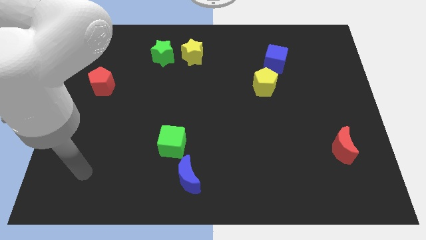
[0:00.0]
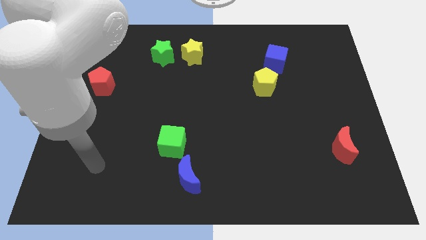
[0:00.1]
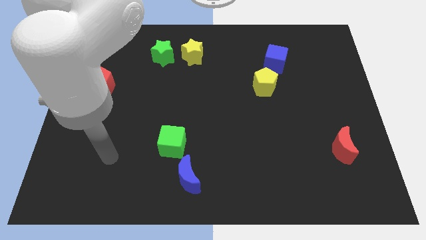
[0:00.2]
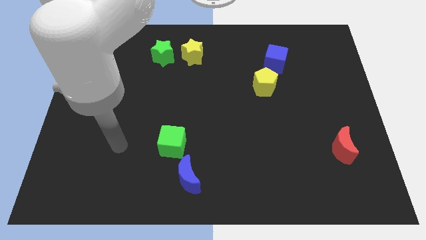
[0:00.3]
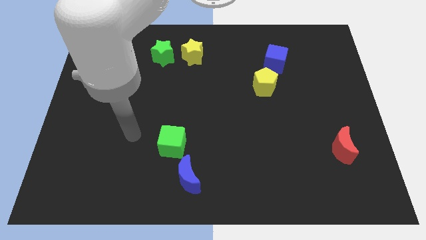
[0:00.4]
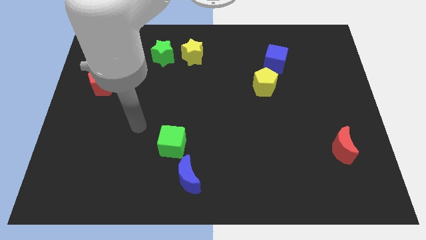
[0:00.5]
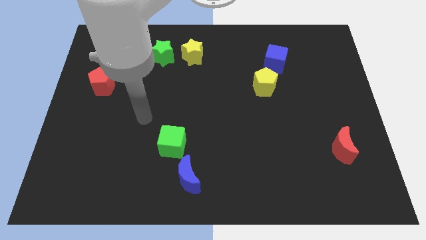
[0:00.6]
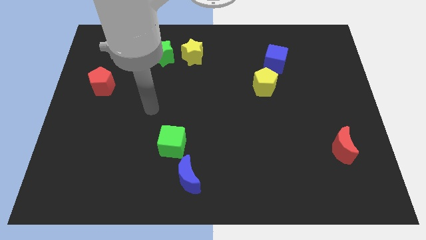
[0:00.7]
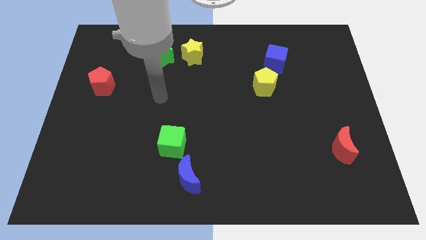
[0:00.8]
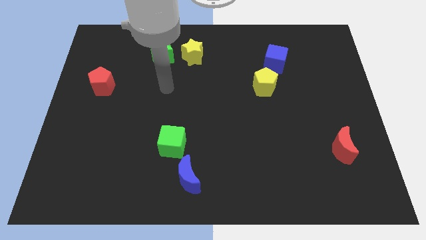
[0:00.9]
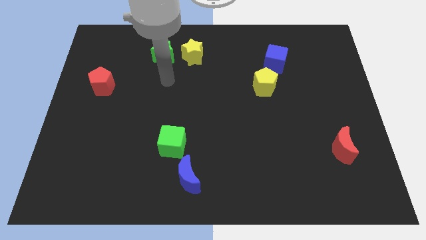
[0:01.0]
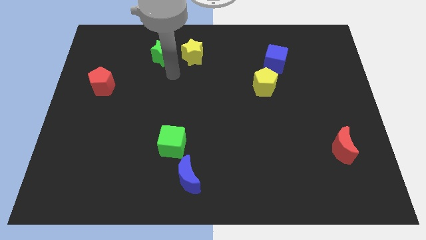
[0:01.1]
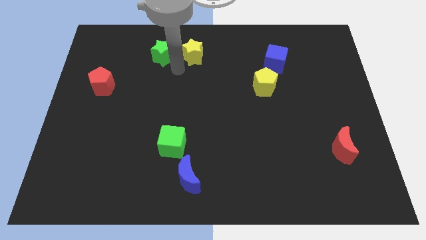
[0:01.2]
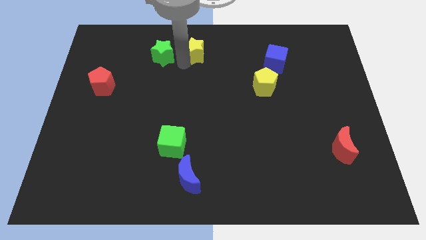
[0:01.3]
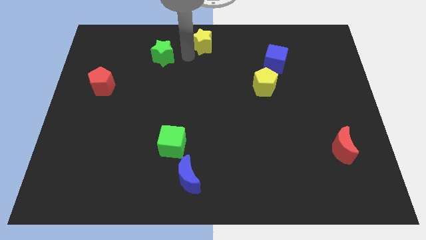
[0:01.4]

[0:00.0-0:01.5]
separate the green star from the yellow star

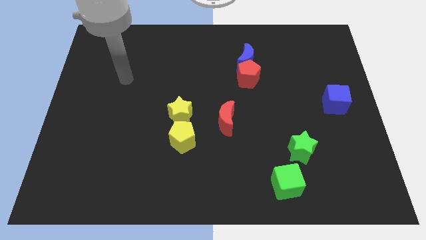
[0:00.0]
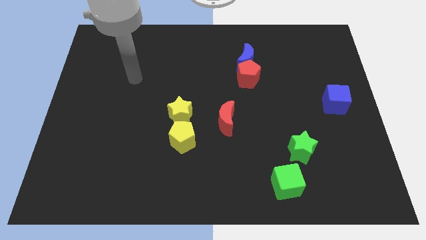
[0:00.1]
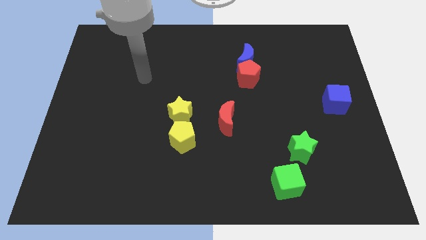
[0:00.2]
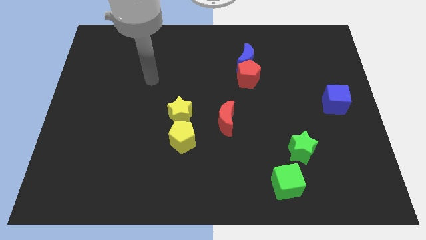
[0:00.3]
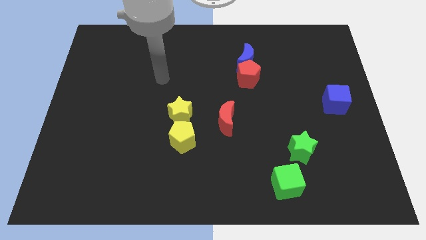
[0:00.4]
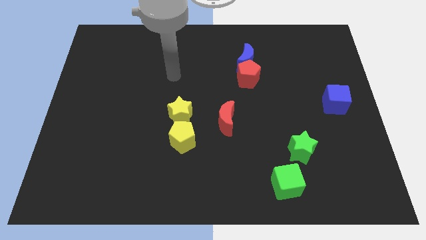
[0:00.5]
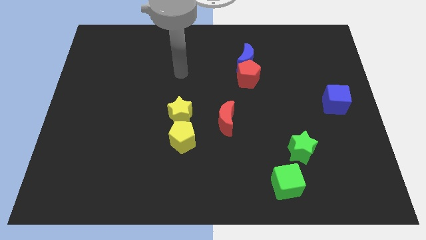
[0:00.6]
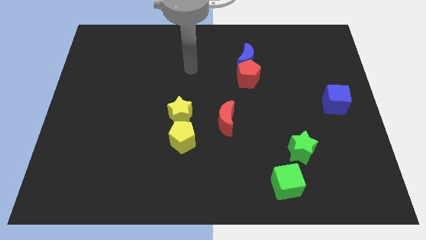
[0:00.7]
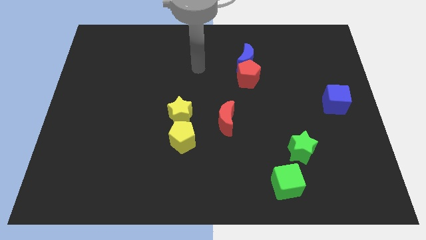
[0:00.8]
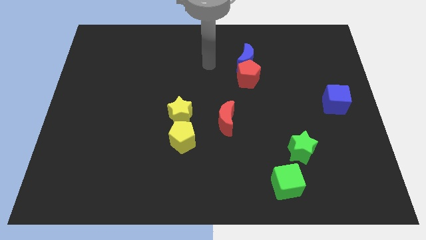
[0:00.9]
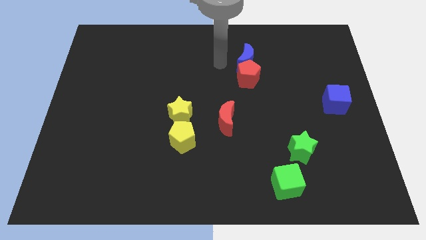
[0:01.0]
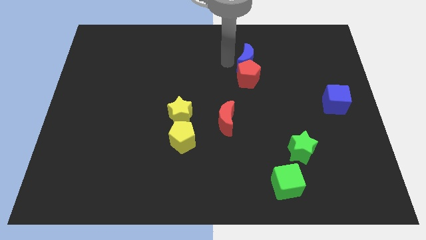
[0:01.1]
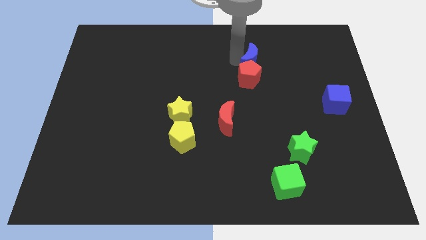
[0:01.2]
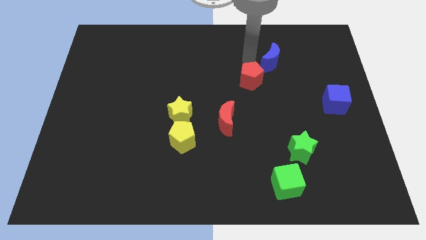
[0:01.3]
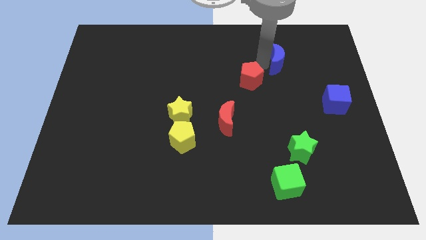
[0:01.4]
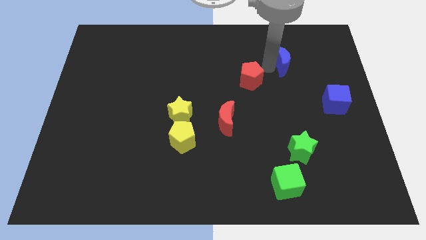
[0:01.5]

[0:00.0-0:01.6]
pull the red pentagon apart from the blue moon

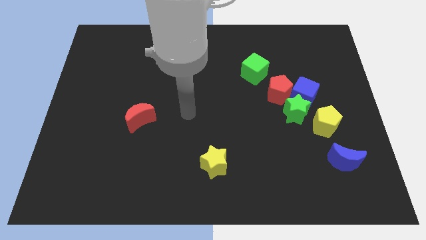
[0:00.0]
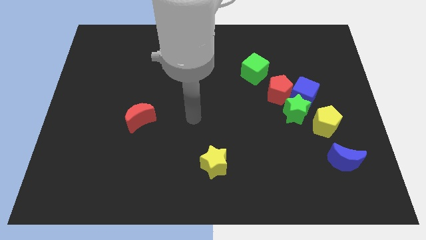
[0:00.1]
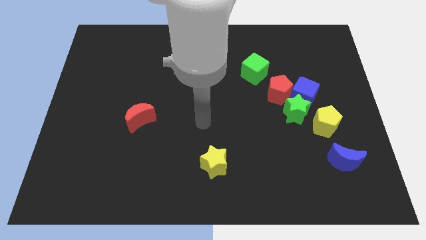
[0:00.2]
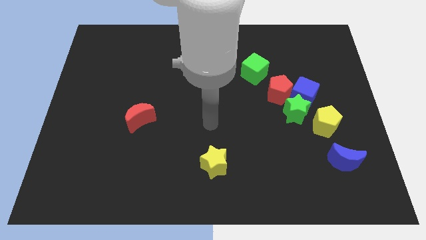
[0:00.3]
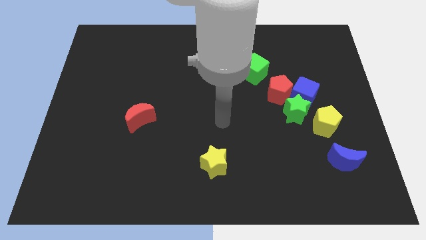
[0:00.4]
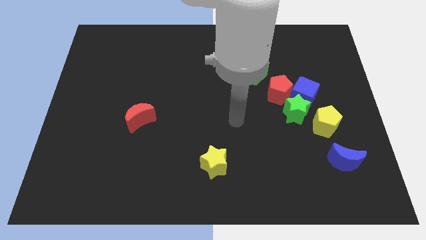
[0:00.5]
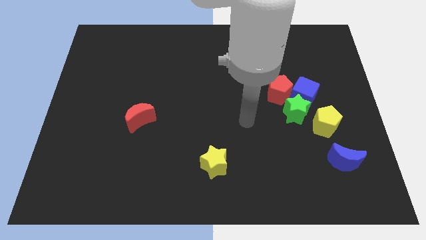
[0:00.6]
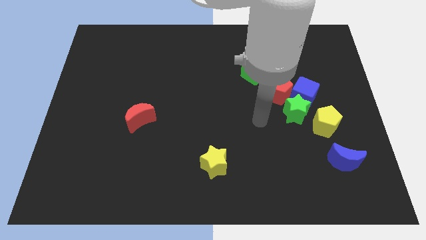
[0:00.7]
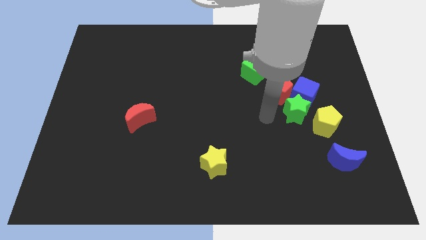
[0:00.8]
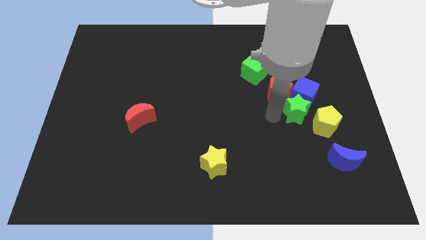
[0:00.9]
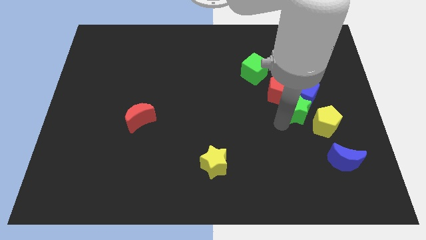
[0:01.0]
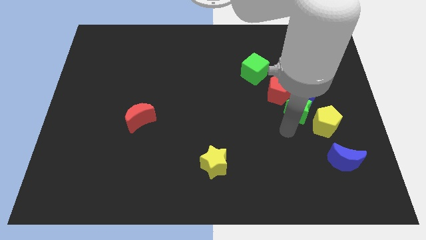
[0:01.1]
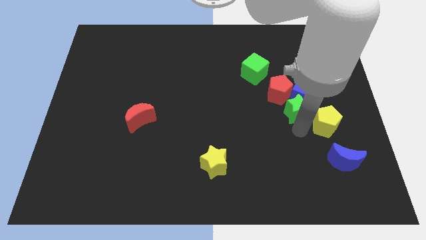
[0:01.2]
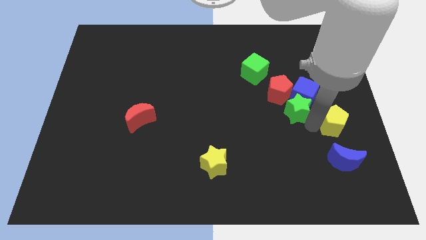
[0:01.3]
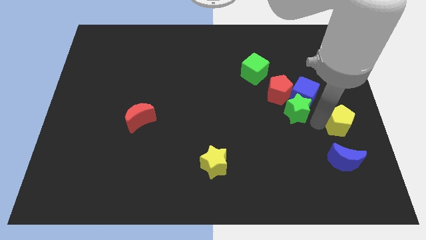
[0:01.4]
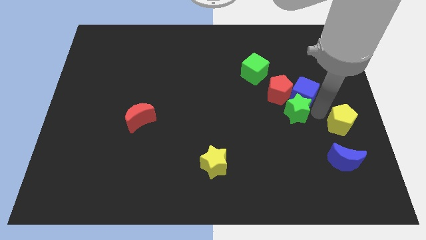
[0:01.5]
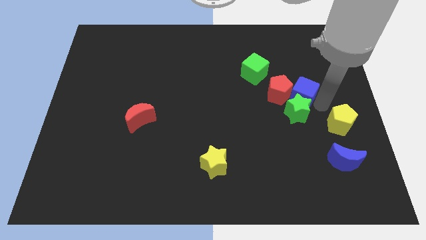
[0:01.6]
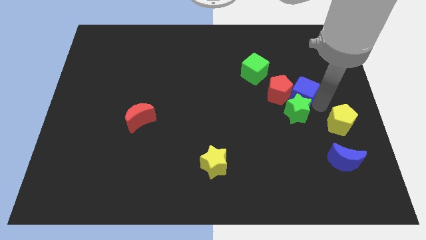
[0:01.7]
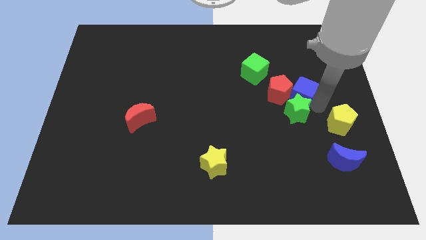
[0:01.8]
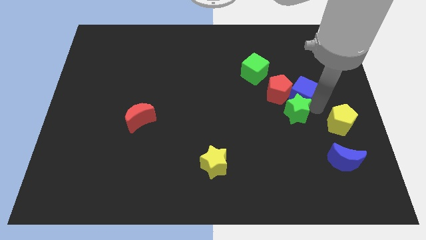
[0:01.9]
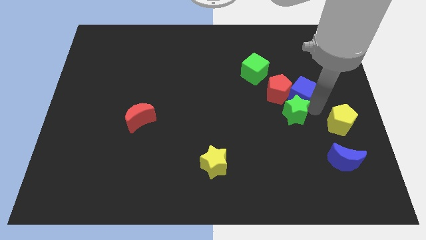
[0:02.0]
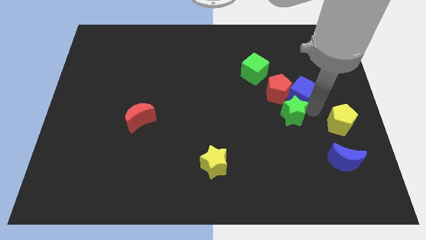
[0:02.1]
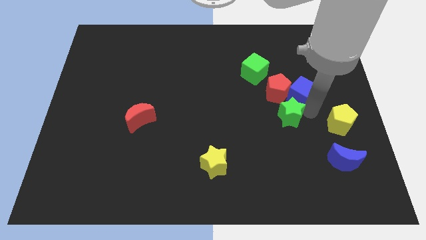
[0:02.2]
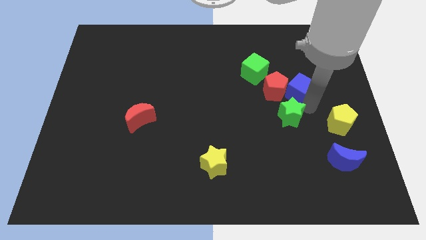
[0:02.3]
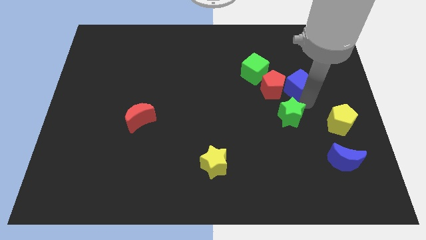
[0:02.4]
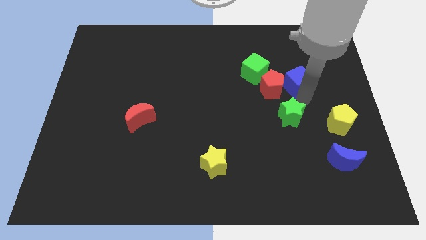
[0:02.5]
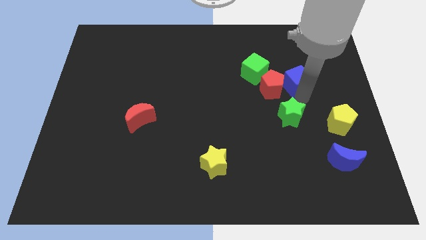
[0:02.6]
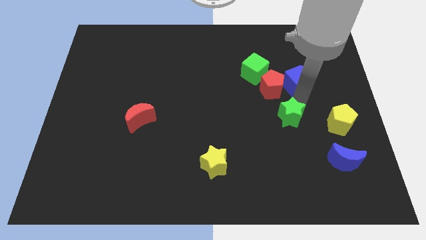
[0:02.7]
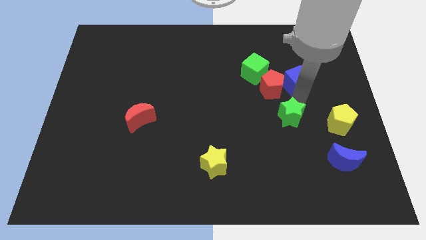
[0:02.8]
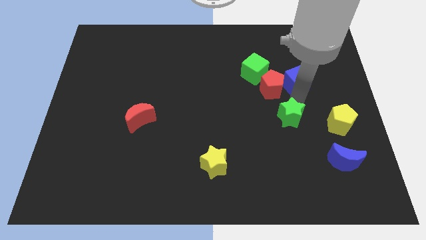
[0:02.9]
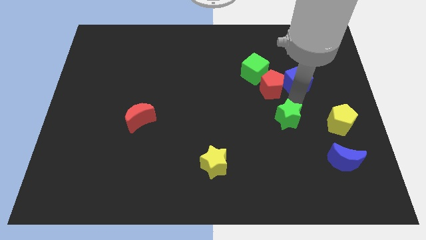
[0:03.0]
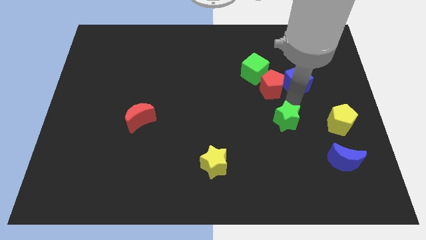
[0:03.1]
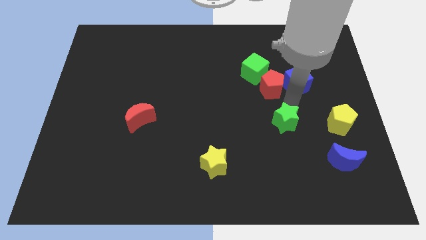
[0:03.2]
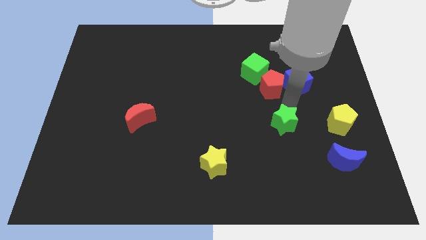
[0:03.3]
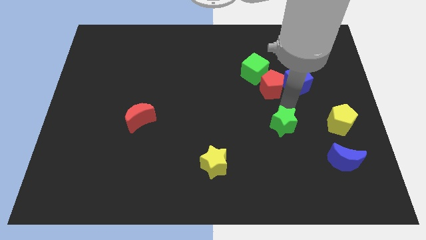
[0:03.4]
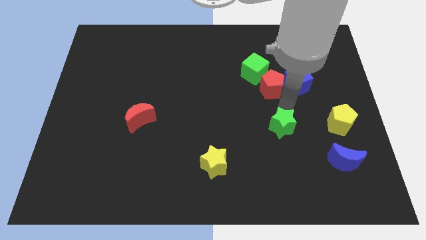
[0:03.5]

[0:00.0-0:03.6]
move the green star away from the blue cube, red pentagon, and yellow pentagon

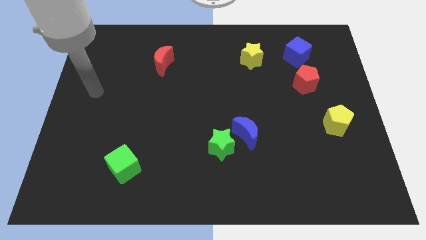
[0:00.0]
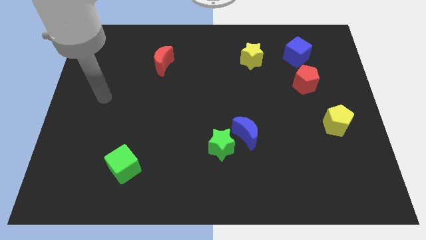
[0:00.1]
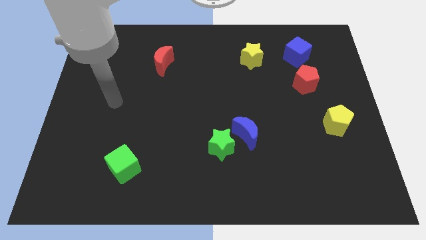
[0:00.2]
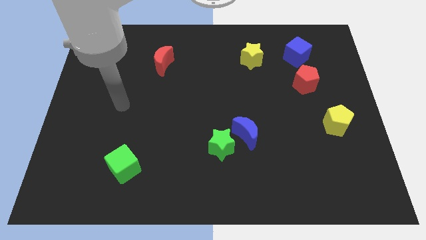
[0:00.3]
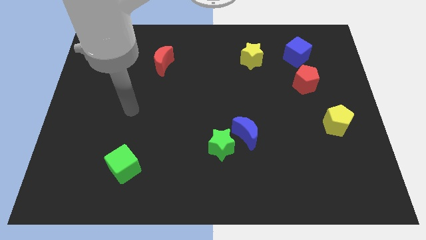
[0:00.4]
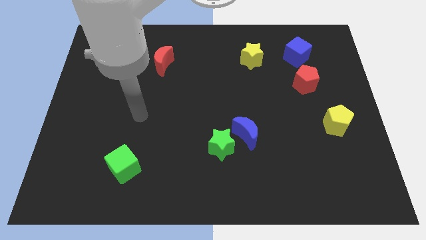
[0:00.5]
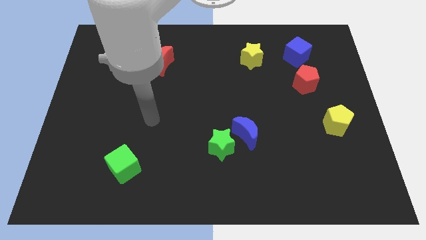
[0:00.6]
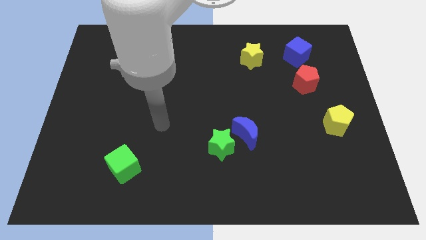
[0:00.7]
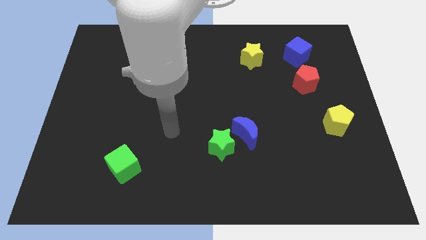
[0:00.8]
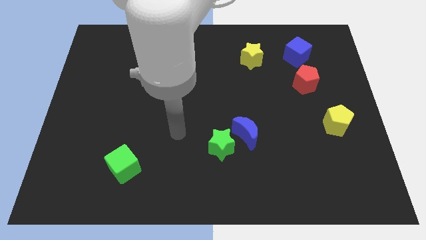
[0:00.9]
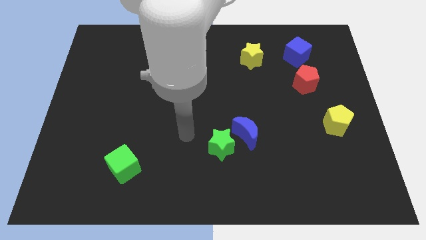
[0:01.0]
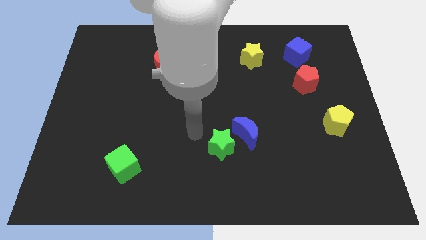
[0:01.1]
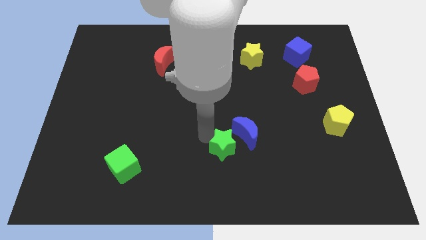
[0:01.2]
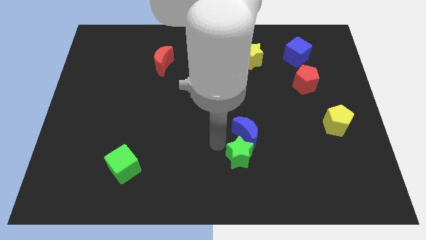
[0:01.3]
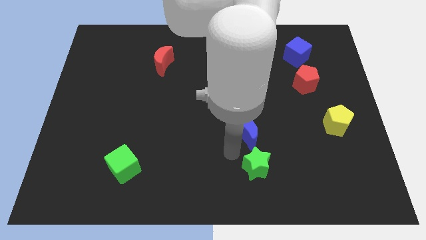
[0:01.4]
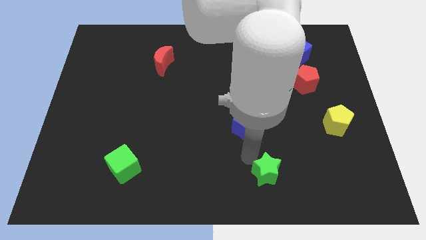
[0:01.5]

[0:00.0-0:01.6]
separate the blue moon from the green star

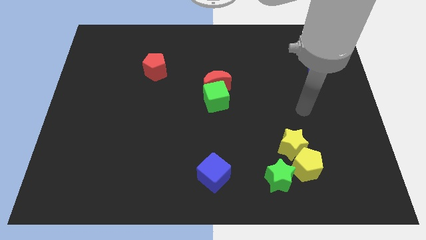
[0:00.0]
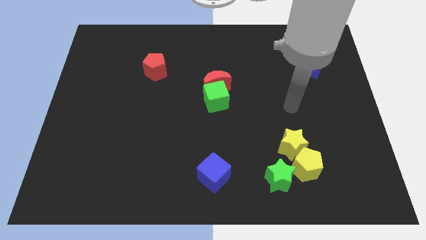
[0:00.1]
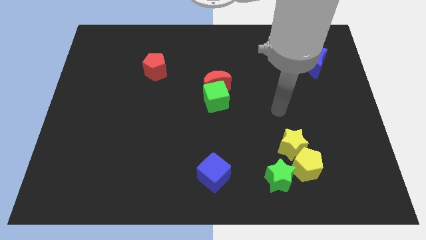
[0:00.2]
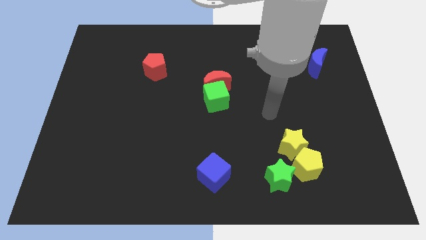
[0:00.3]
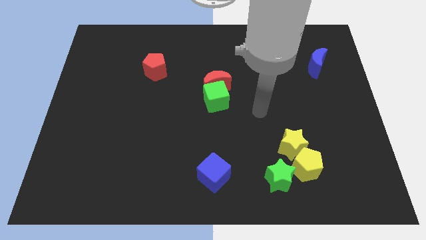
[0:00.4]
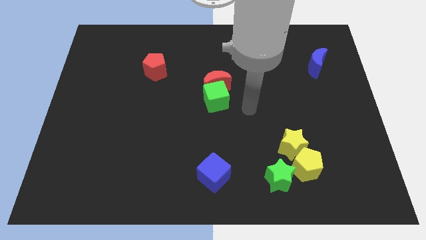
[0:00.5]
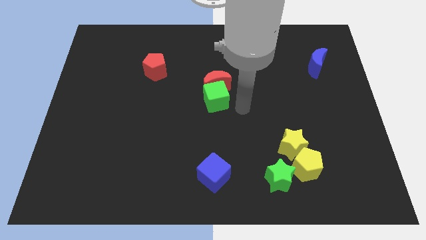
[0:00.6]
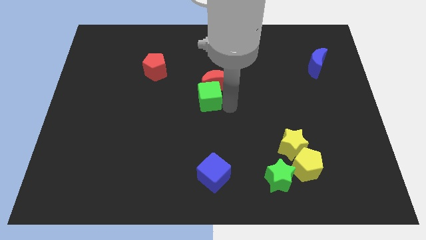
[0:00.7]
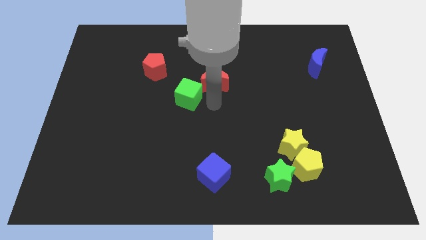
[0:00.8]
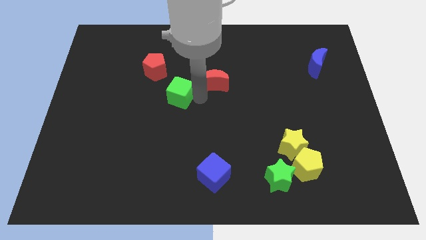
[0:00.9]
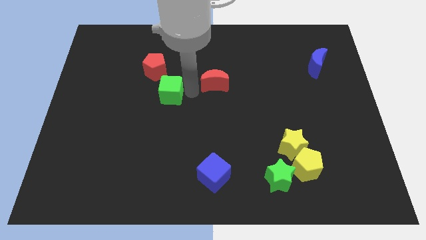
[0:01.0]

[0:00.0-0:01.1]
separate the red moon from the green cube
